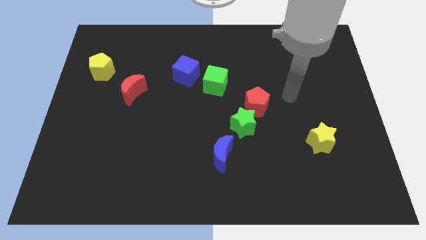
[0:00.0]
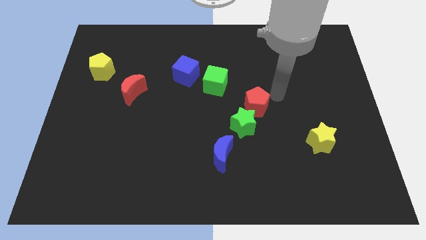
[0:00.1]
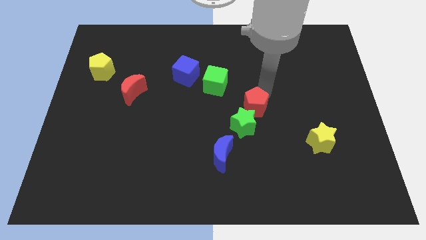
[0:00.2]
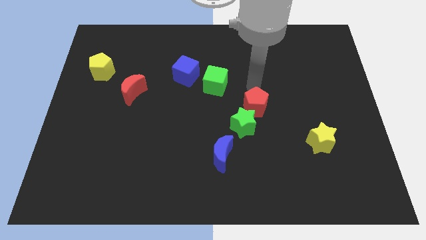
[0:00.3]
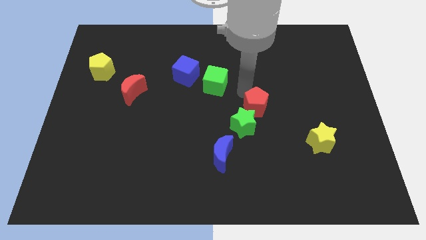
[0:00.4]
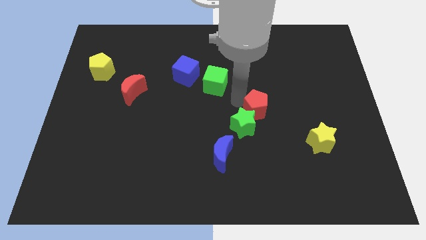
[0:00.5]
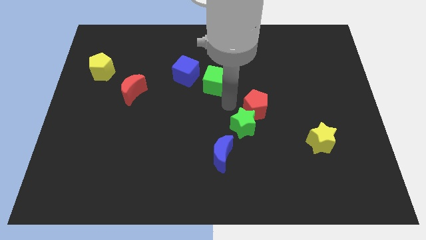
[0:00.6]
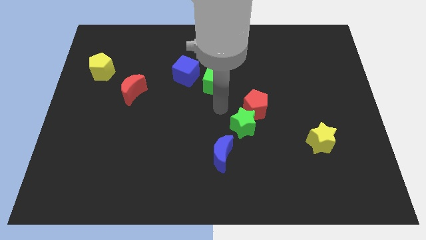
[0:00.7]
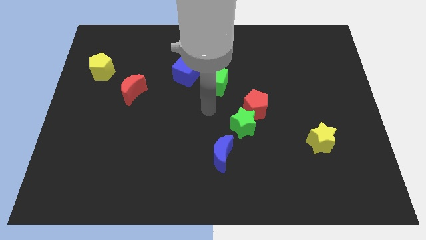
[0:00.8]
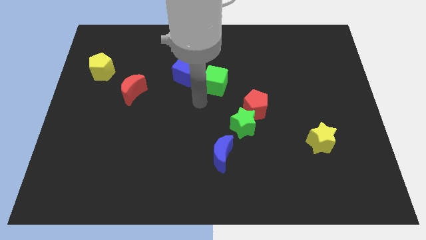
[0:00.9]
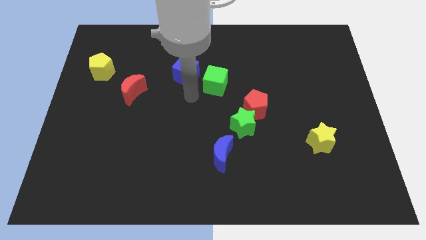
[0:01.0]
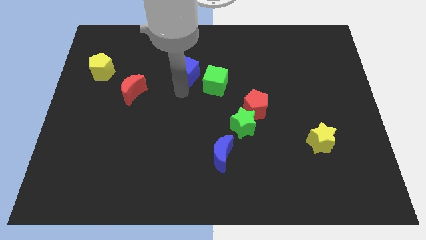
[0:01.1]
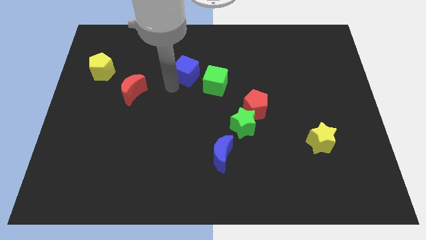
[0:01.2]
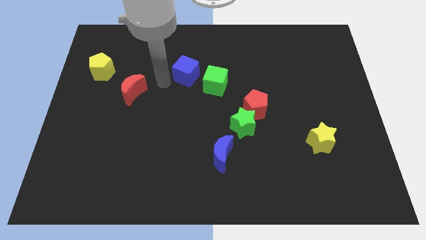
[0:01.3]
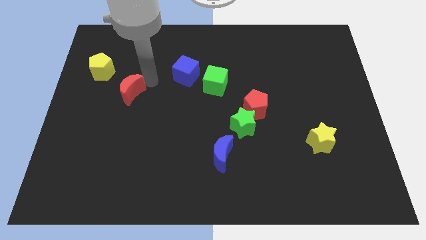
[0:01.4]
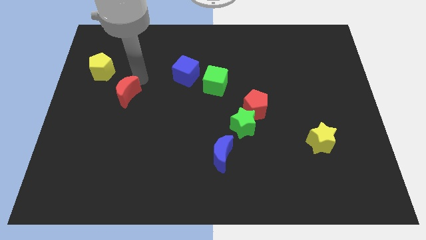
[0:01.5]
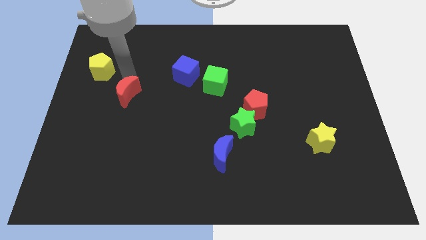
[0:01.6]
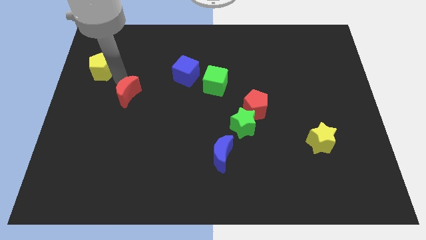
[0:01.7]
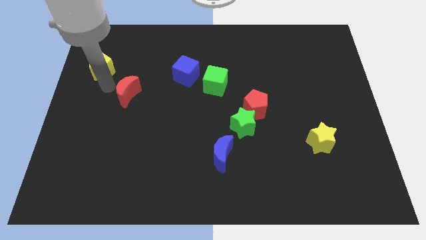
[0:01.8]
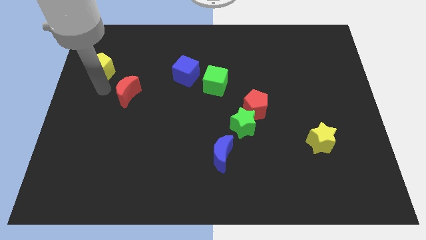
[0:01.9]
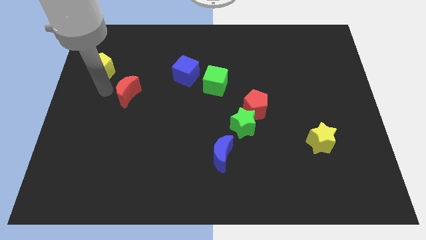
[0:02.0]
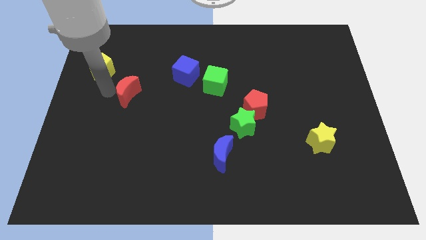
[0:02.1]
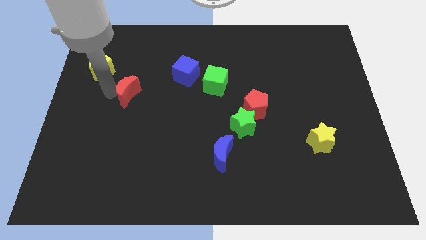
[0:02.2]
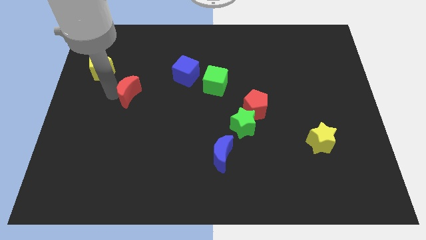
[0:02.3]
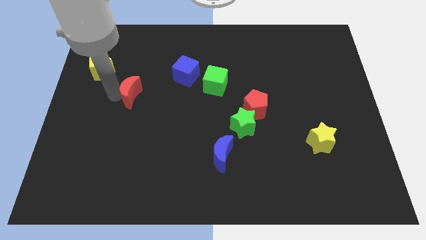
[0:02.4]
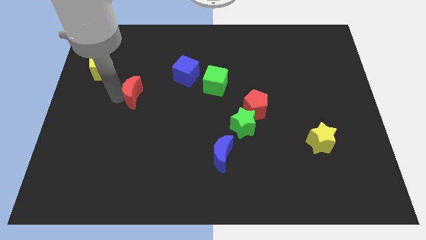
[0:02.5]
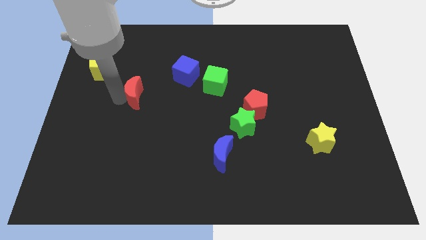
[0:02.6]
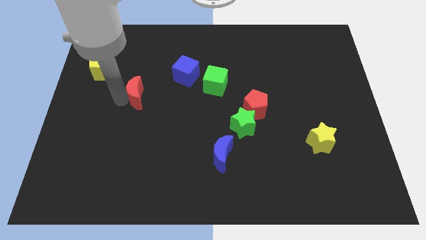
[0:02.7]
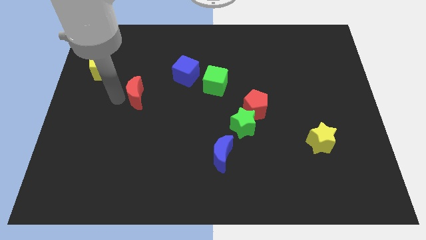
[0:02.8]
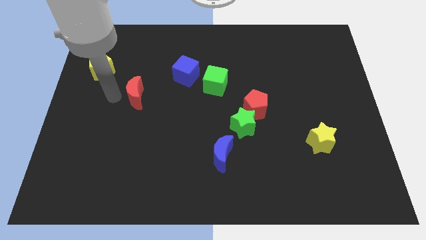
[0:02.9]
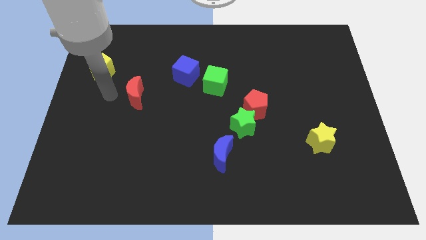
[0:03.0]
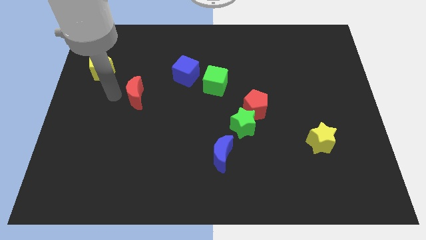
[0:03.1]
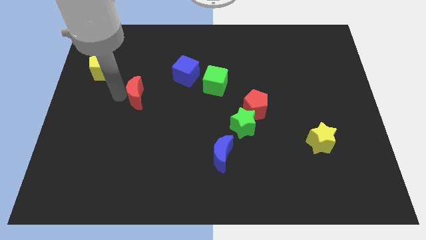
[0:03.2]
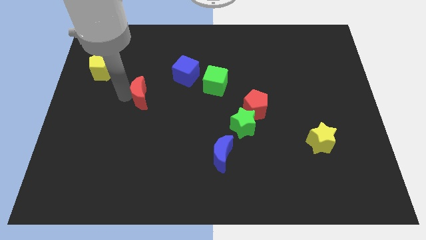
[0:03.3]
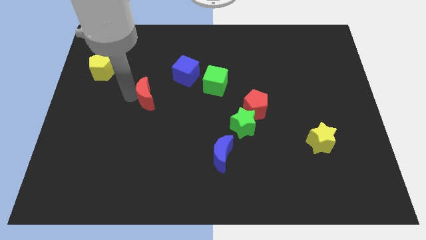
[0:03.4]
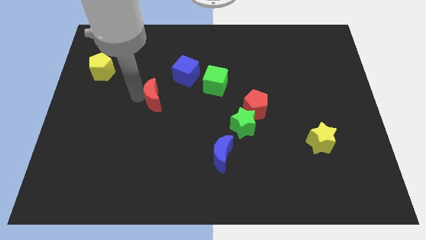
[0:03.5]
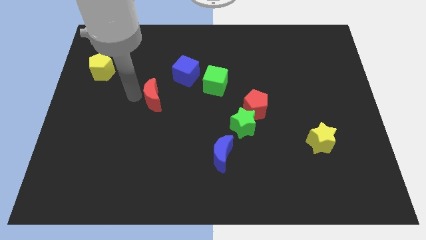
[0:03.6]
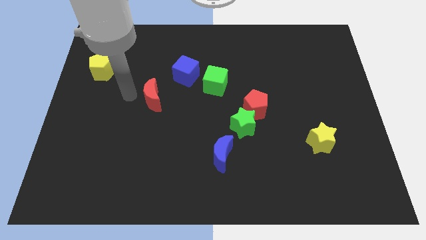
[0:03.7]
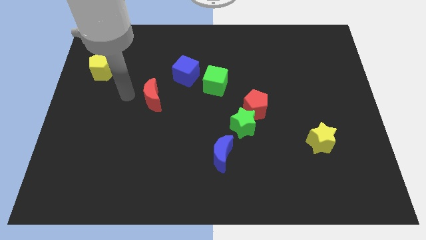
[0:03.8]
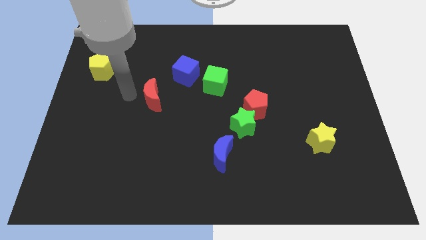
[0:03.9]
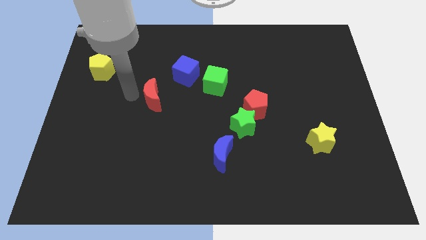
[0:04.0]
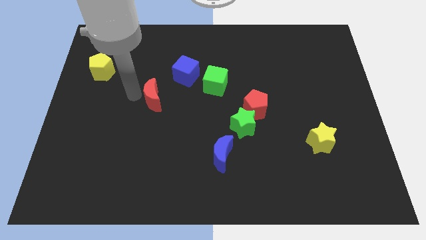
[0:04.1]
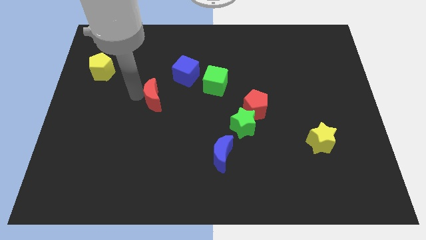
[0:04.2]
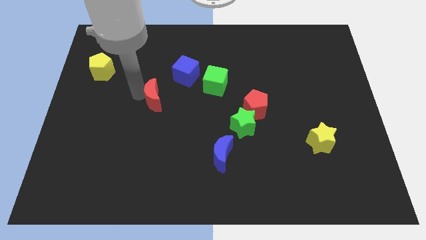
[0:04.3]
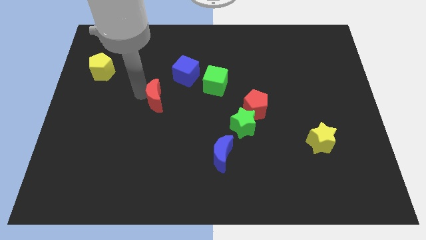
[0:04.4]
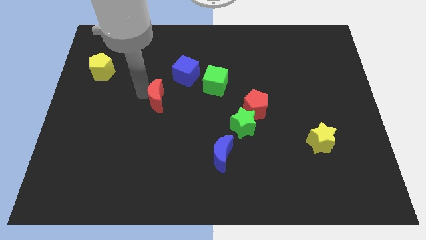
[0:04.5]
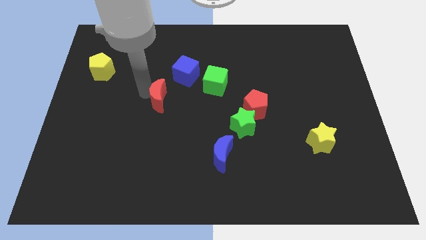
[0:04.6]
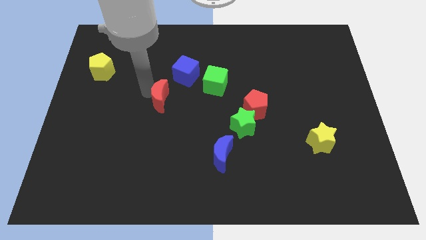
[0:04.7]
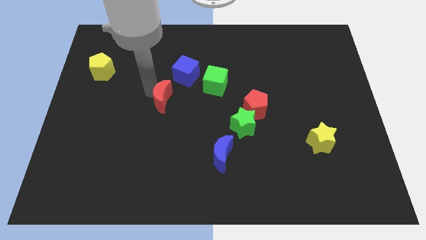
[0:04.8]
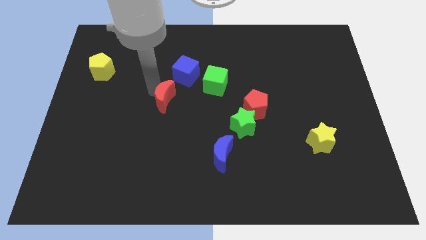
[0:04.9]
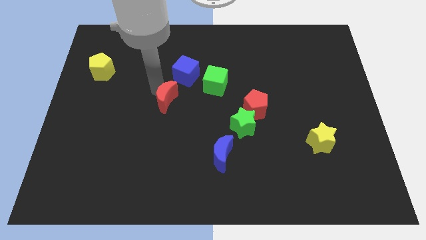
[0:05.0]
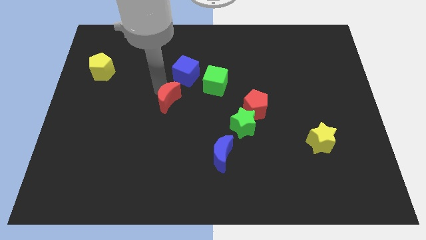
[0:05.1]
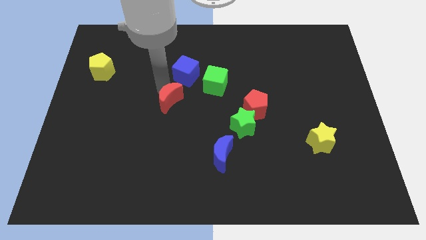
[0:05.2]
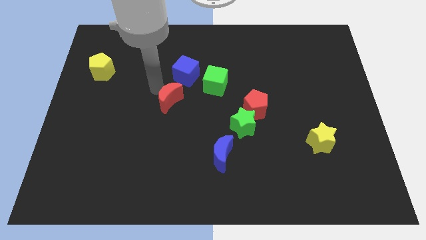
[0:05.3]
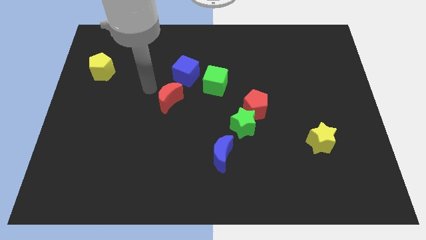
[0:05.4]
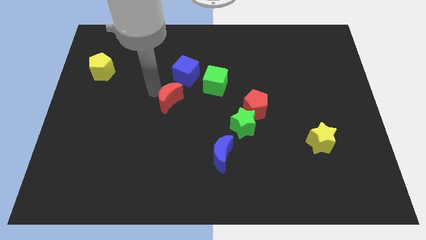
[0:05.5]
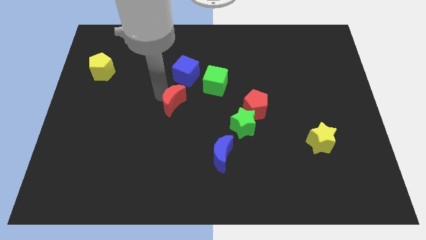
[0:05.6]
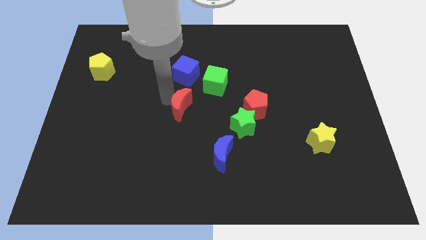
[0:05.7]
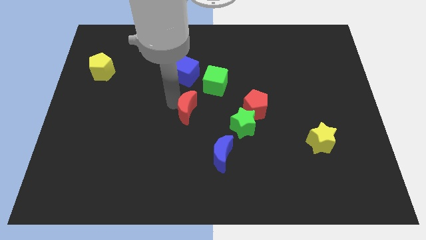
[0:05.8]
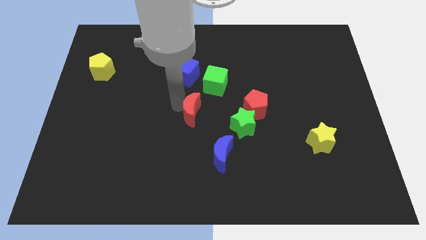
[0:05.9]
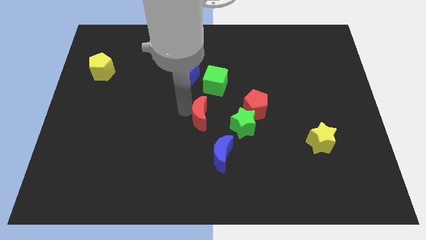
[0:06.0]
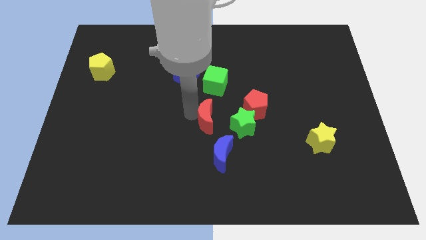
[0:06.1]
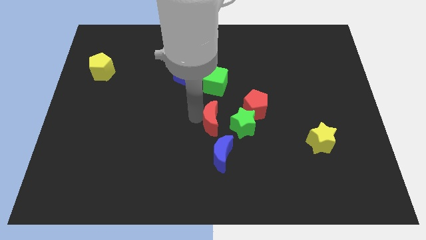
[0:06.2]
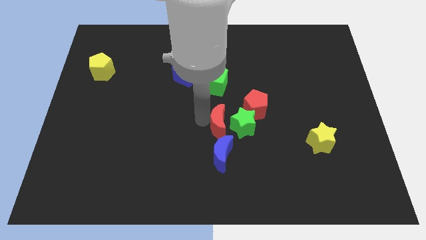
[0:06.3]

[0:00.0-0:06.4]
move the red moon next to the green star

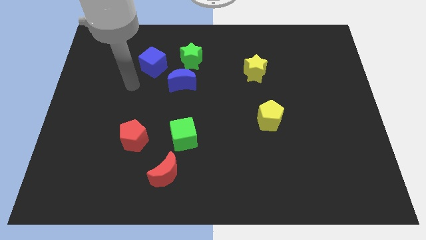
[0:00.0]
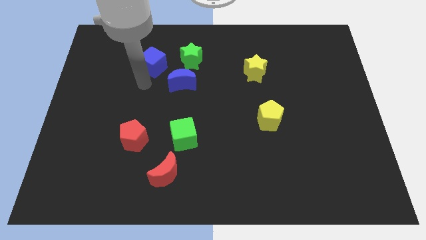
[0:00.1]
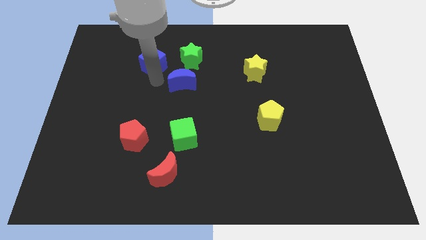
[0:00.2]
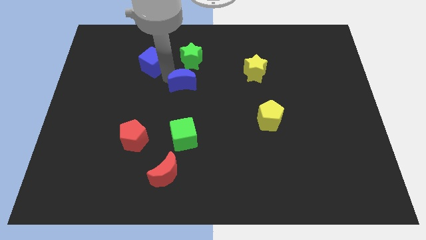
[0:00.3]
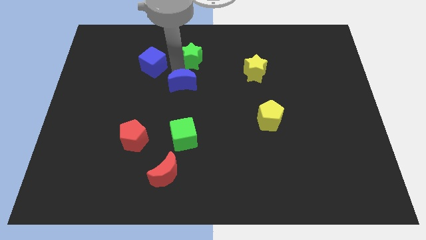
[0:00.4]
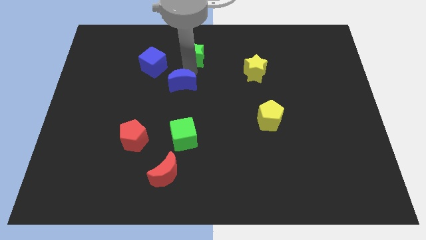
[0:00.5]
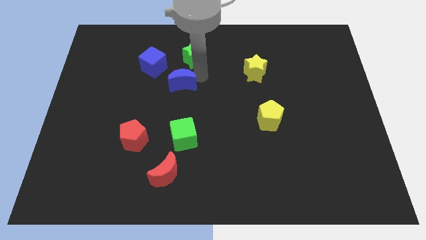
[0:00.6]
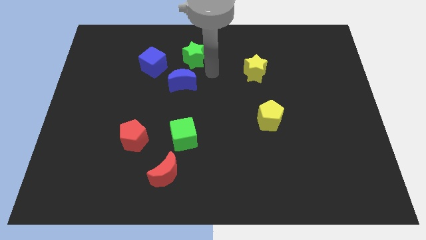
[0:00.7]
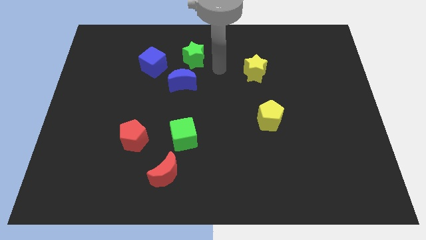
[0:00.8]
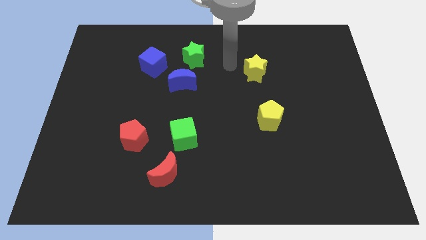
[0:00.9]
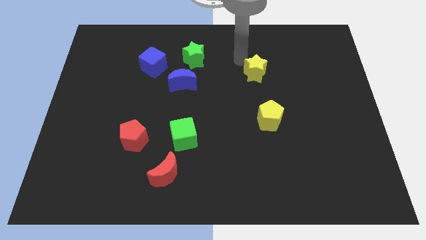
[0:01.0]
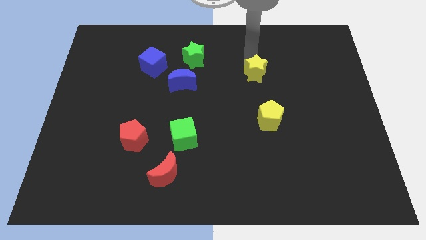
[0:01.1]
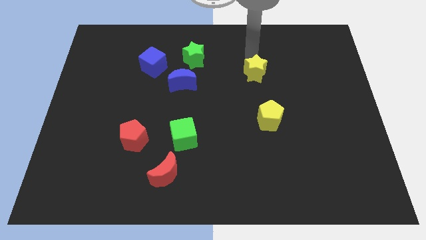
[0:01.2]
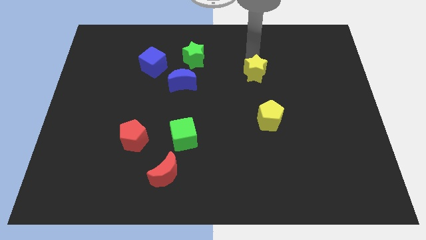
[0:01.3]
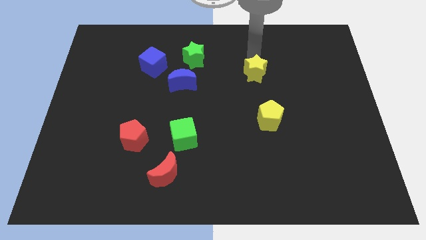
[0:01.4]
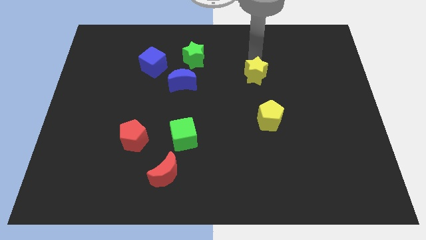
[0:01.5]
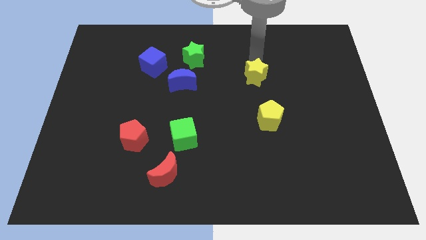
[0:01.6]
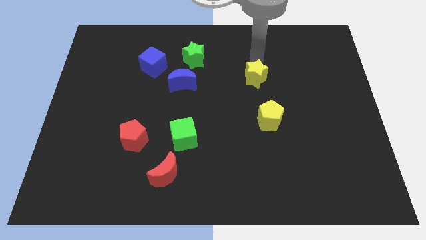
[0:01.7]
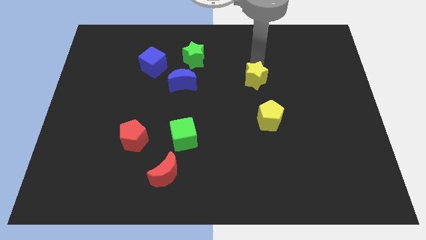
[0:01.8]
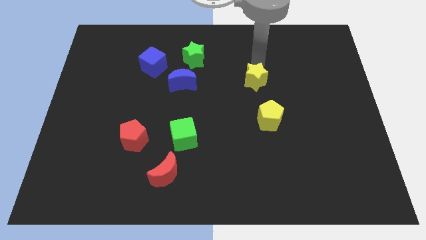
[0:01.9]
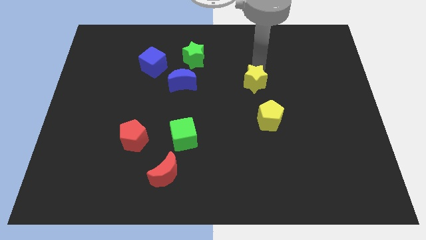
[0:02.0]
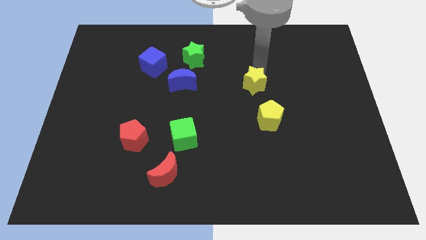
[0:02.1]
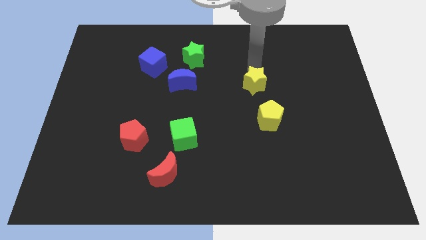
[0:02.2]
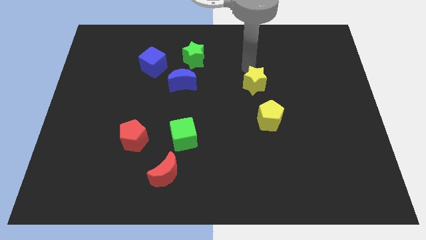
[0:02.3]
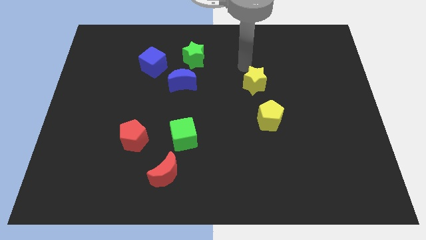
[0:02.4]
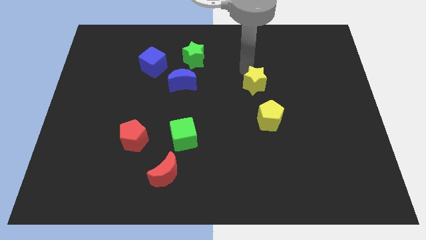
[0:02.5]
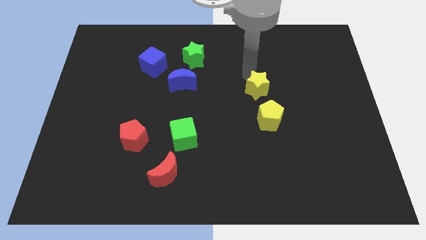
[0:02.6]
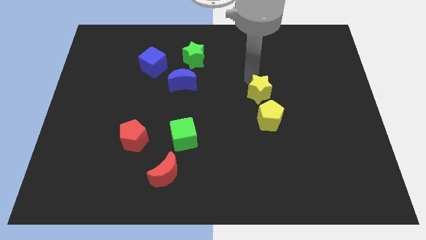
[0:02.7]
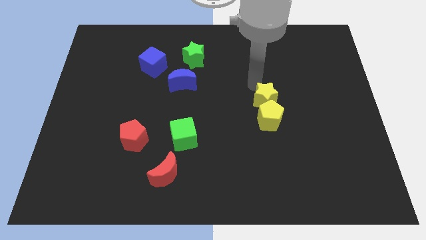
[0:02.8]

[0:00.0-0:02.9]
move the yellow star close to the yellow pentagon
